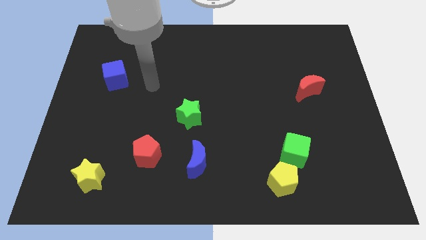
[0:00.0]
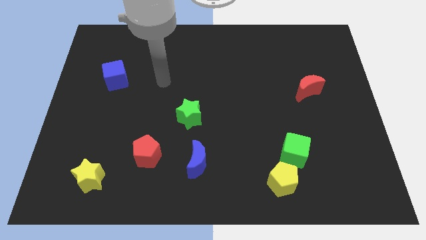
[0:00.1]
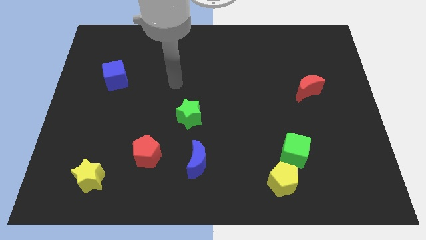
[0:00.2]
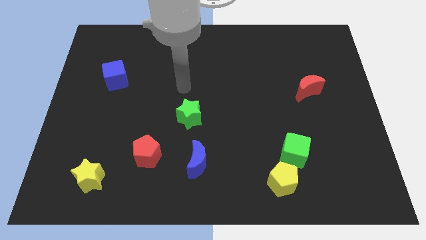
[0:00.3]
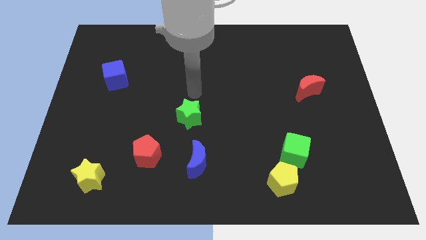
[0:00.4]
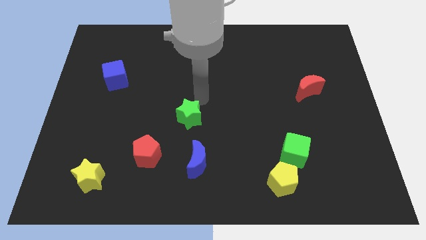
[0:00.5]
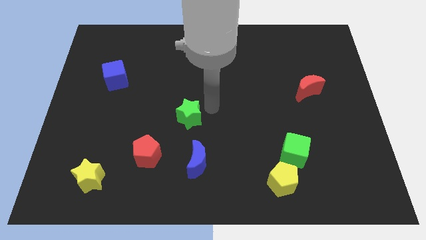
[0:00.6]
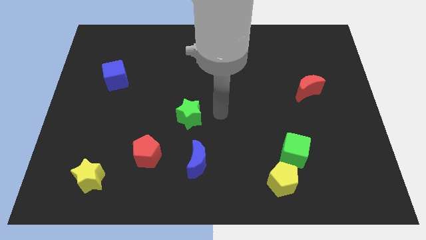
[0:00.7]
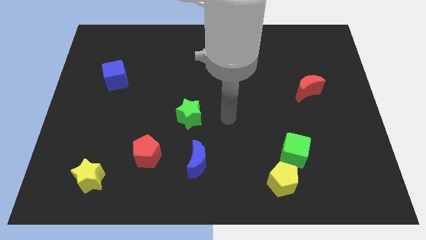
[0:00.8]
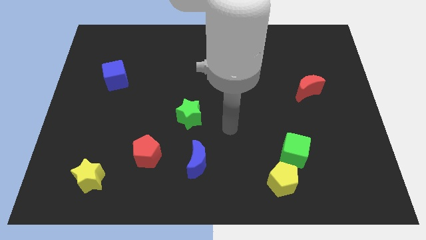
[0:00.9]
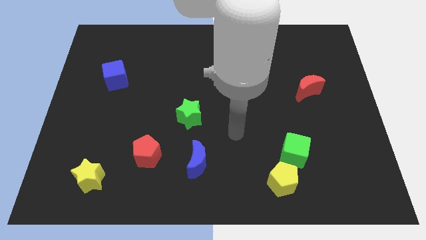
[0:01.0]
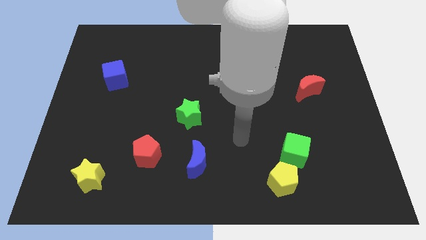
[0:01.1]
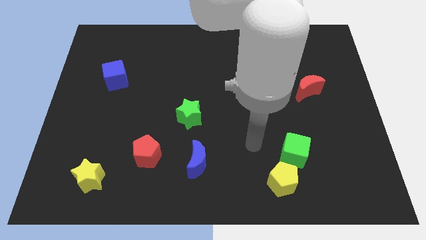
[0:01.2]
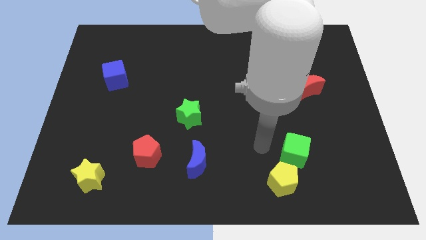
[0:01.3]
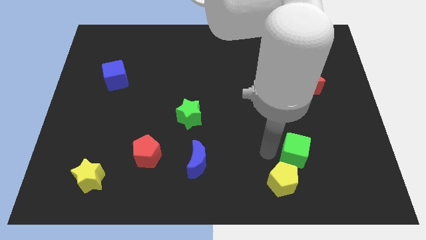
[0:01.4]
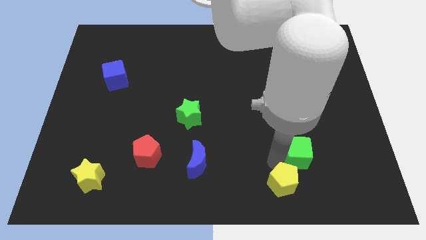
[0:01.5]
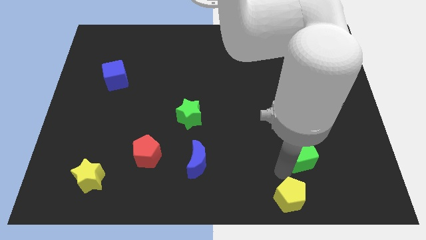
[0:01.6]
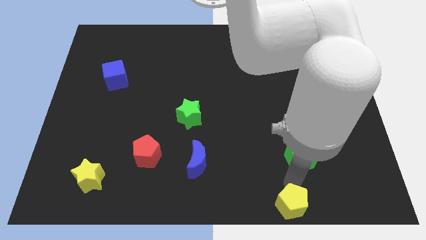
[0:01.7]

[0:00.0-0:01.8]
pull the green cube apart from the yellow pentagon

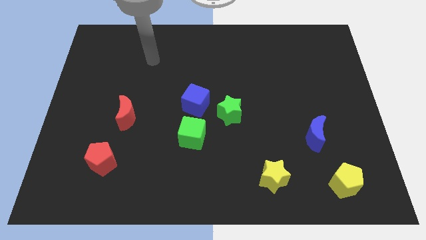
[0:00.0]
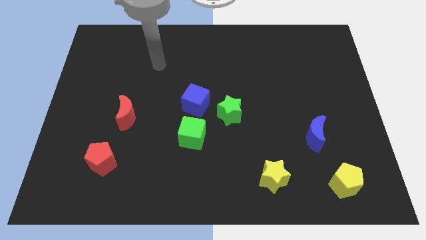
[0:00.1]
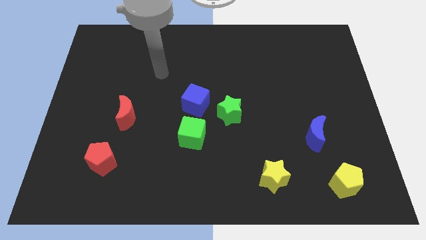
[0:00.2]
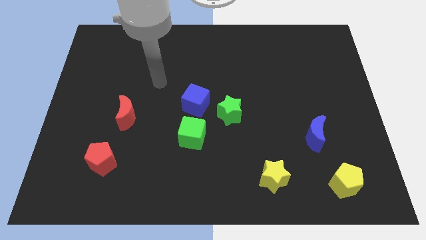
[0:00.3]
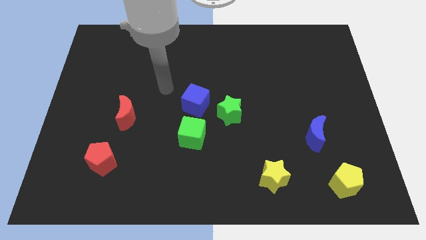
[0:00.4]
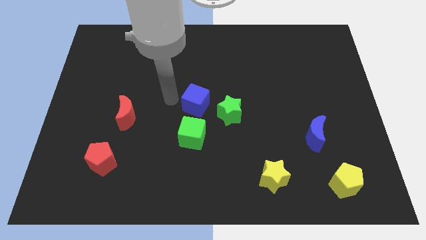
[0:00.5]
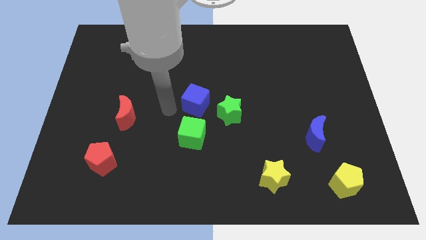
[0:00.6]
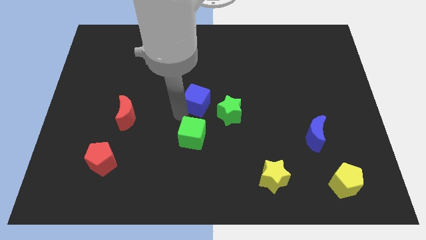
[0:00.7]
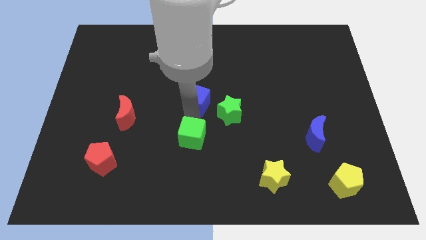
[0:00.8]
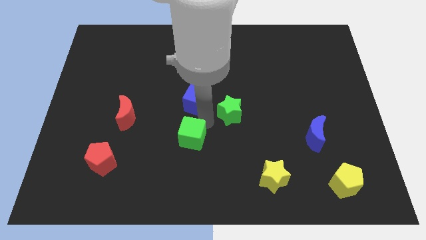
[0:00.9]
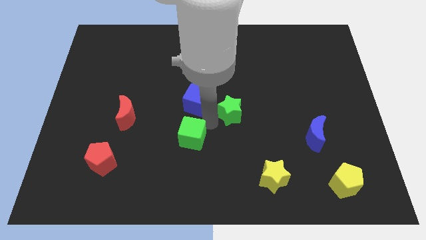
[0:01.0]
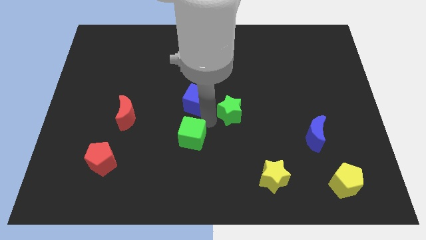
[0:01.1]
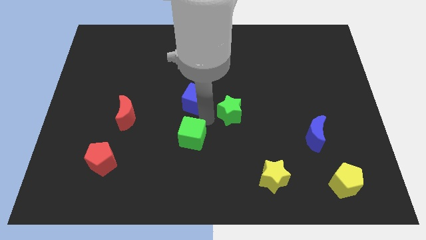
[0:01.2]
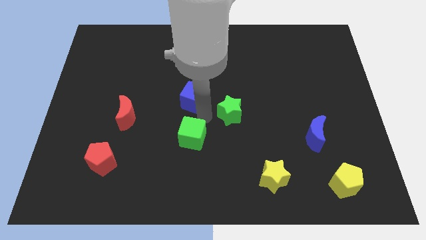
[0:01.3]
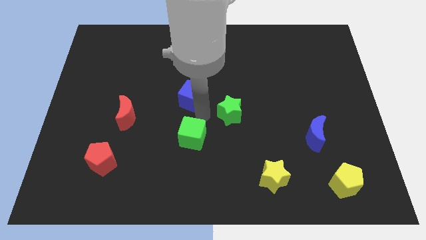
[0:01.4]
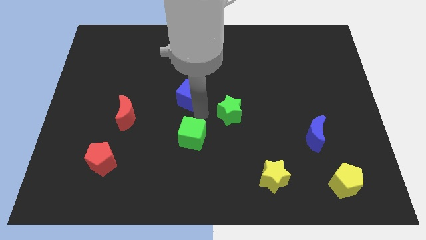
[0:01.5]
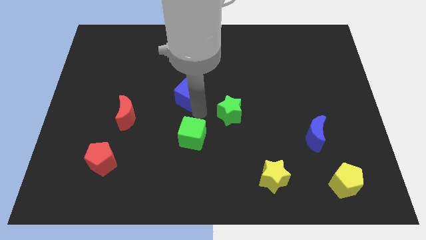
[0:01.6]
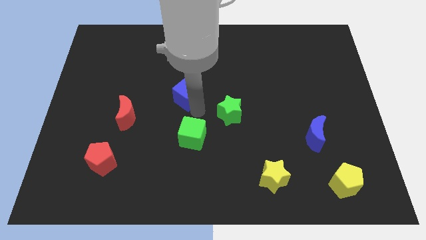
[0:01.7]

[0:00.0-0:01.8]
move the blue cube away from the green star and green cube

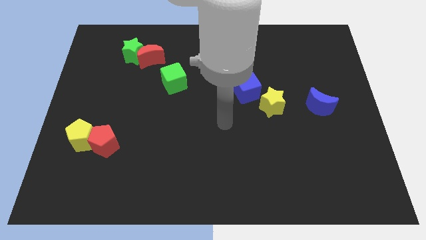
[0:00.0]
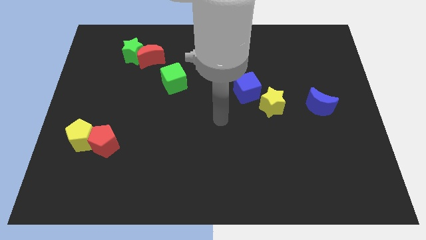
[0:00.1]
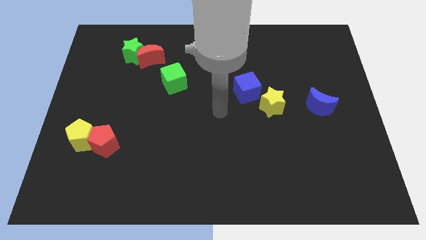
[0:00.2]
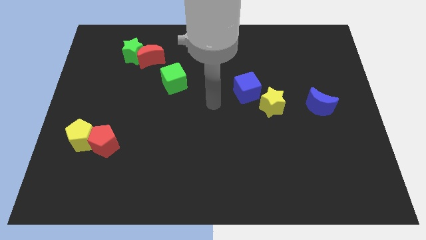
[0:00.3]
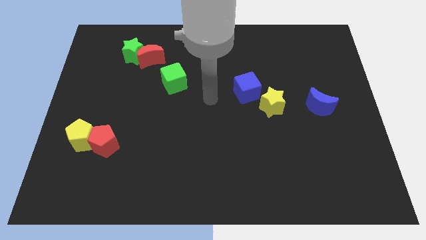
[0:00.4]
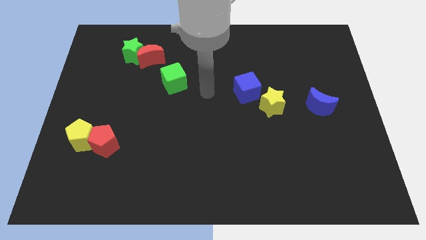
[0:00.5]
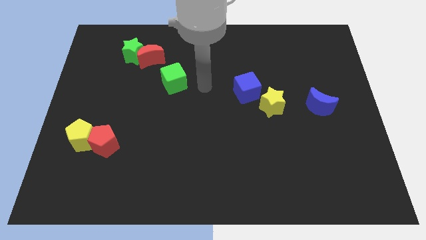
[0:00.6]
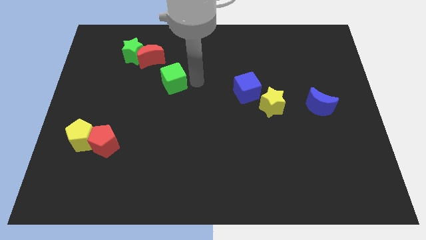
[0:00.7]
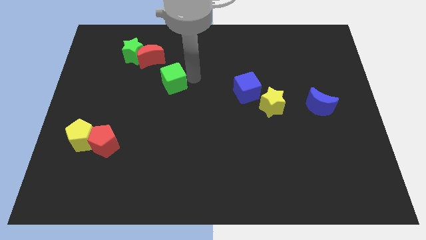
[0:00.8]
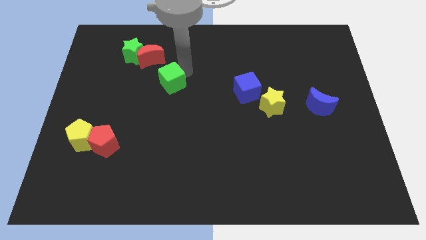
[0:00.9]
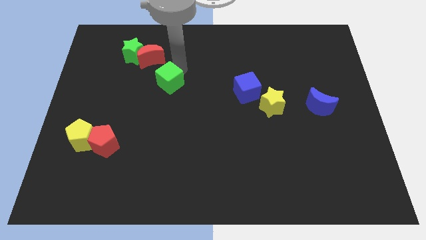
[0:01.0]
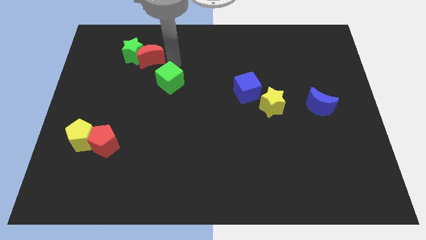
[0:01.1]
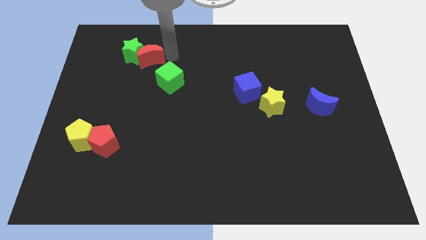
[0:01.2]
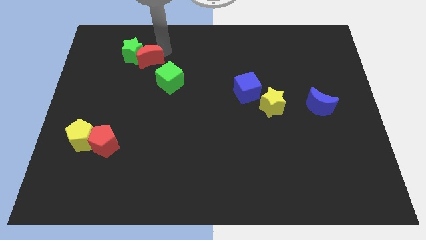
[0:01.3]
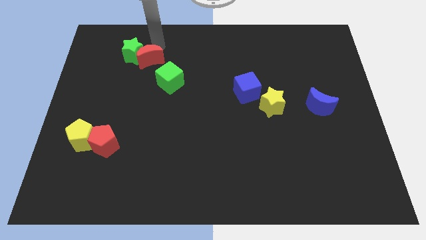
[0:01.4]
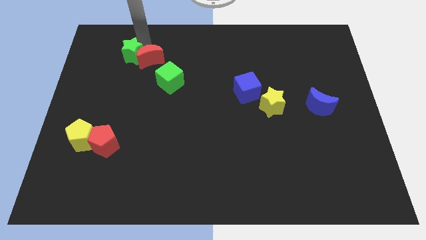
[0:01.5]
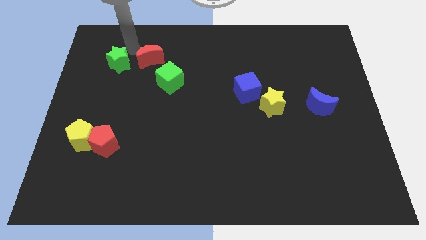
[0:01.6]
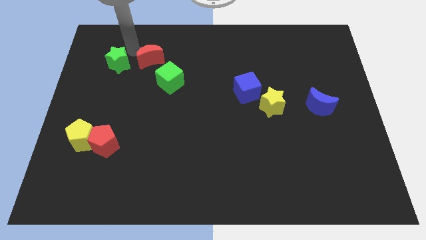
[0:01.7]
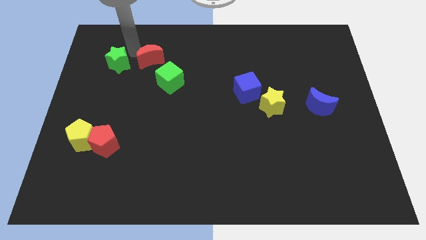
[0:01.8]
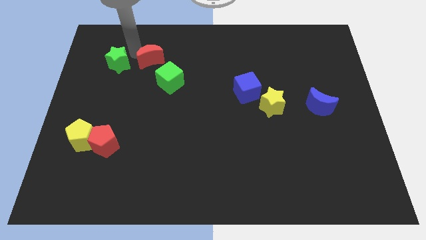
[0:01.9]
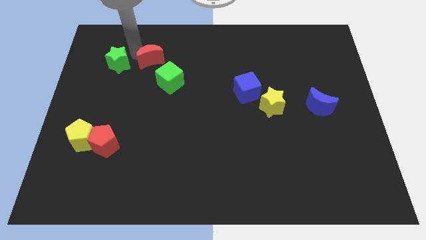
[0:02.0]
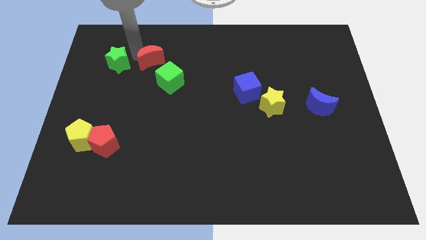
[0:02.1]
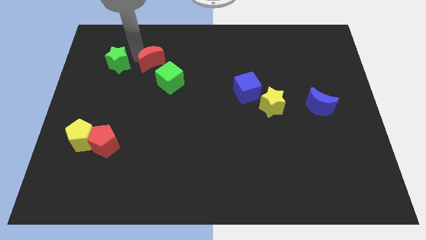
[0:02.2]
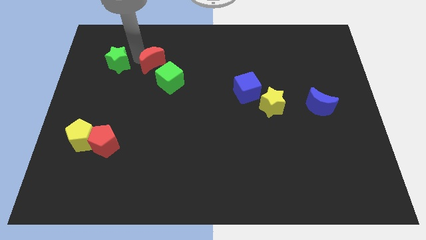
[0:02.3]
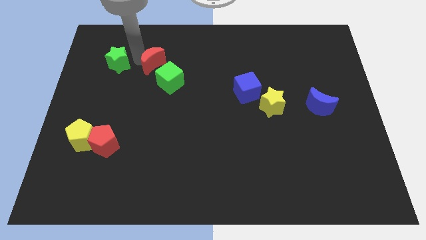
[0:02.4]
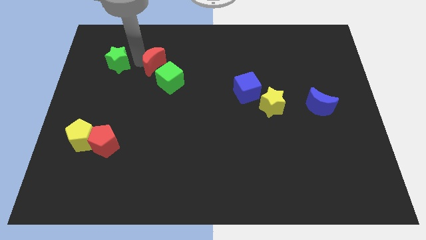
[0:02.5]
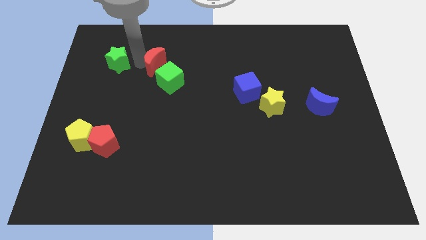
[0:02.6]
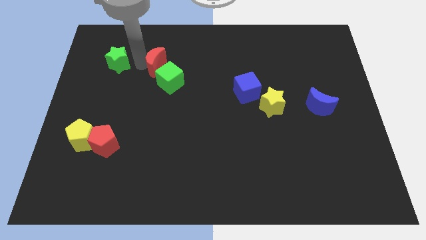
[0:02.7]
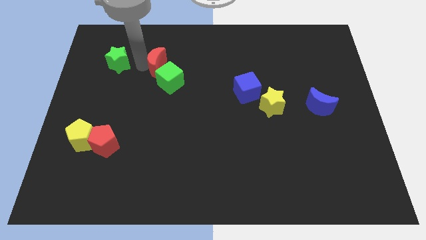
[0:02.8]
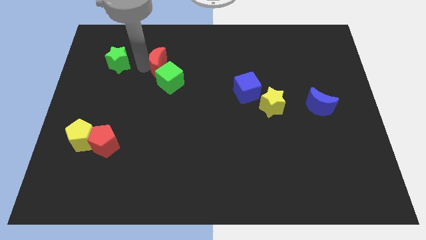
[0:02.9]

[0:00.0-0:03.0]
separate the red moon from the green star

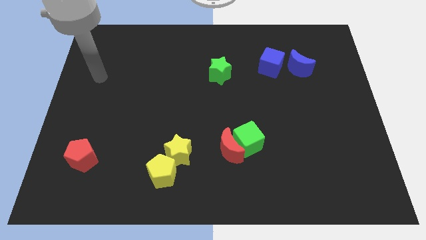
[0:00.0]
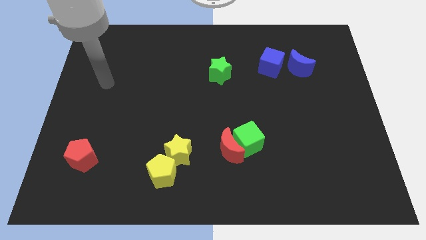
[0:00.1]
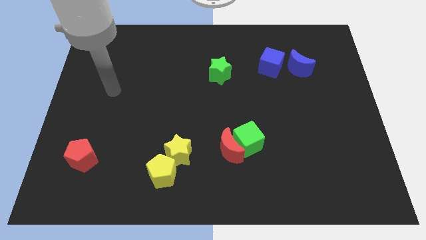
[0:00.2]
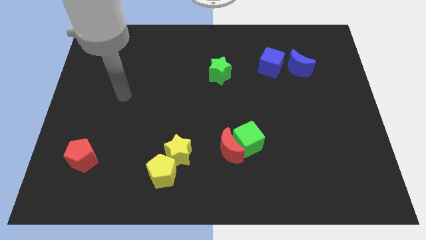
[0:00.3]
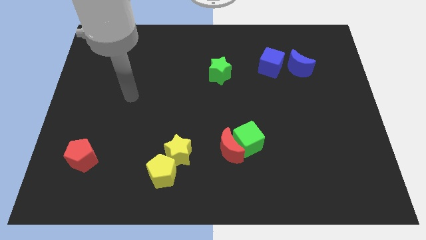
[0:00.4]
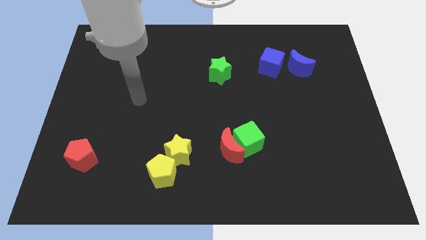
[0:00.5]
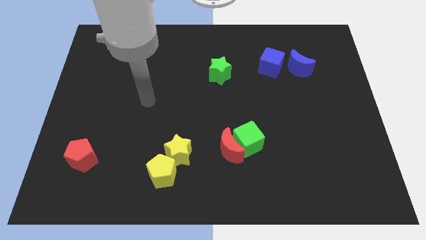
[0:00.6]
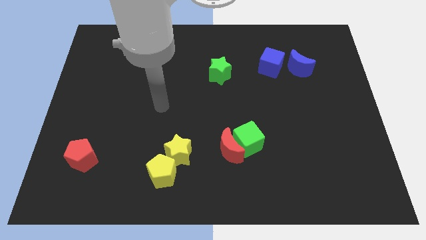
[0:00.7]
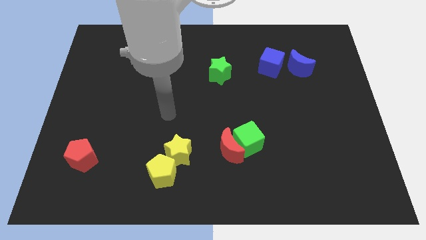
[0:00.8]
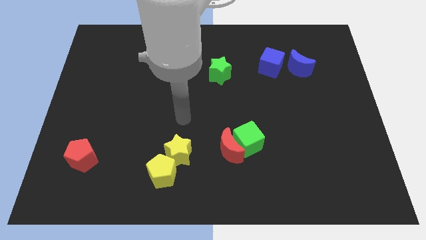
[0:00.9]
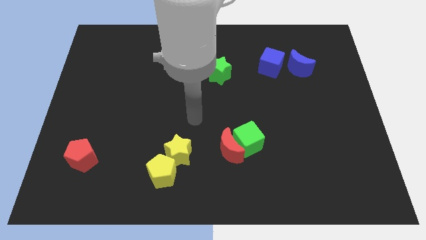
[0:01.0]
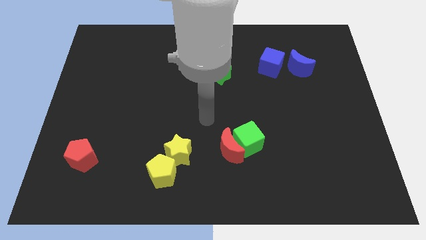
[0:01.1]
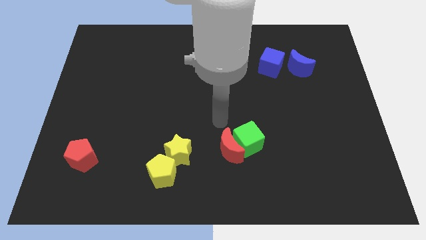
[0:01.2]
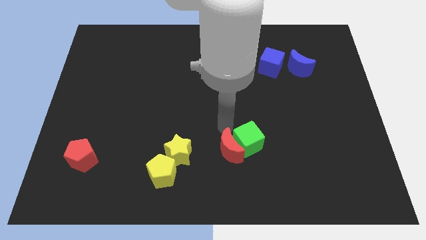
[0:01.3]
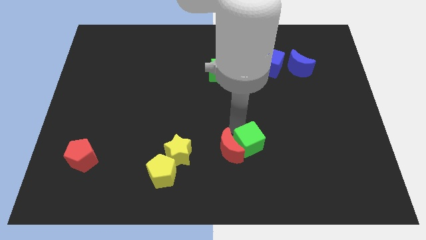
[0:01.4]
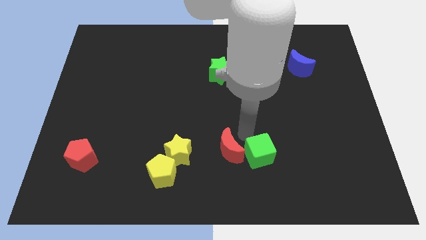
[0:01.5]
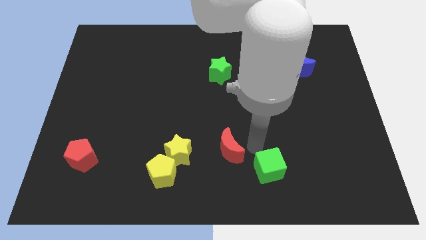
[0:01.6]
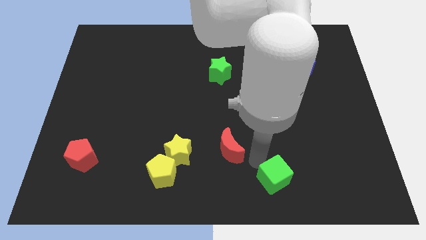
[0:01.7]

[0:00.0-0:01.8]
pull the red moon apart from the green cube

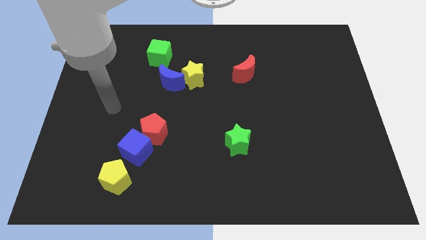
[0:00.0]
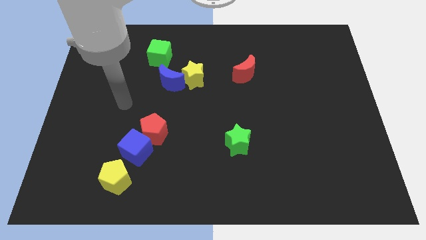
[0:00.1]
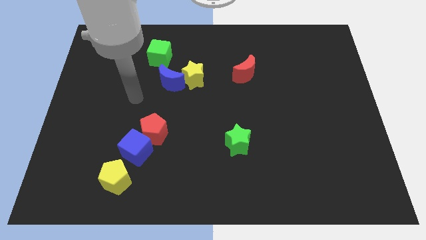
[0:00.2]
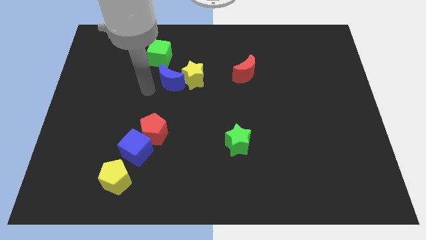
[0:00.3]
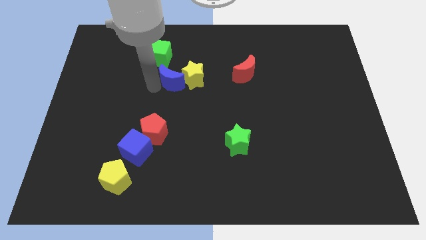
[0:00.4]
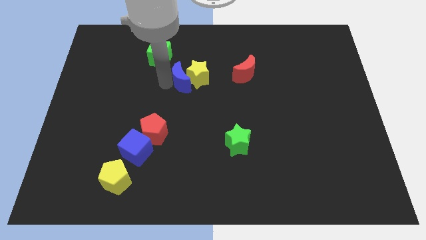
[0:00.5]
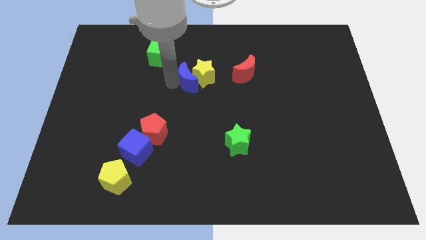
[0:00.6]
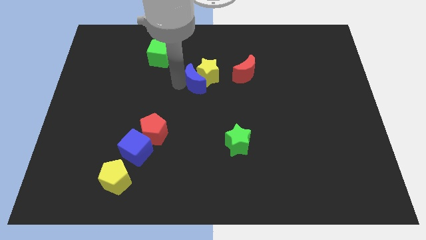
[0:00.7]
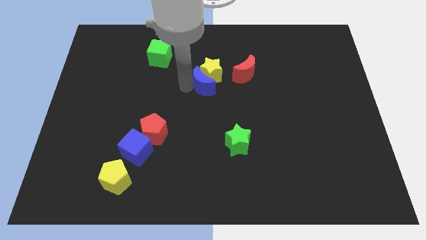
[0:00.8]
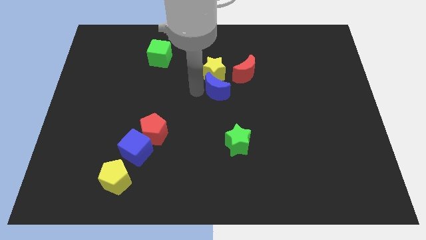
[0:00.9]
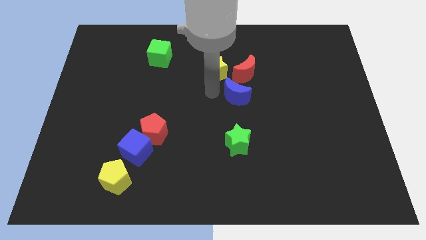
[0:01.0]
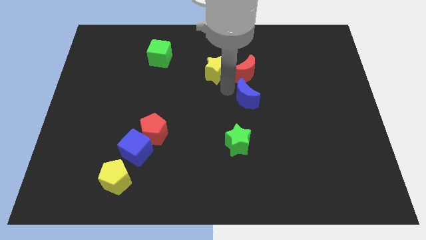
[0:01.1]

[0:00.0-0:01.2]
move the yellow star away from the blue moon
